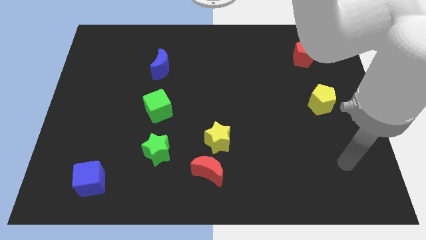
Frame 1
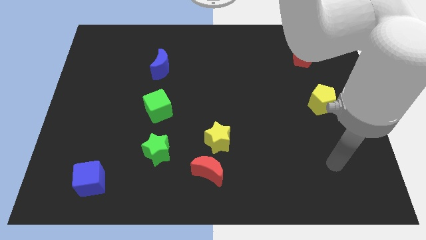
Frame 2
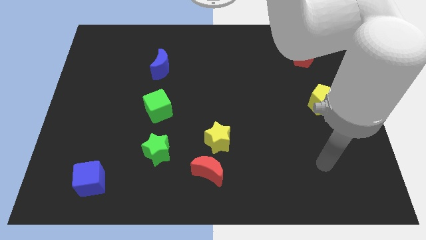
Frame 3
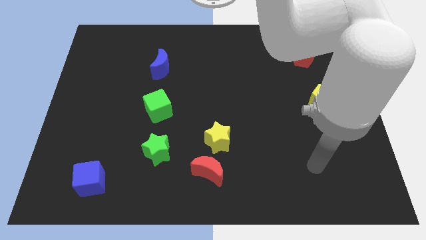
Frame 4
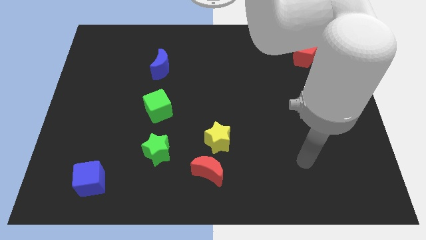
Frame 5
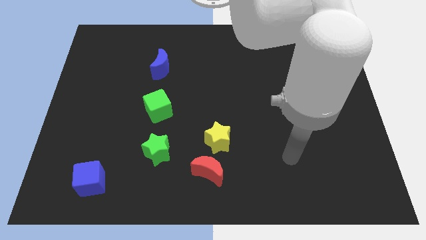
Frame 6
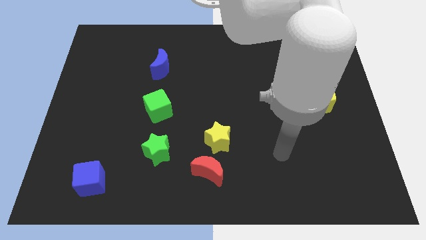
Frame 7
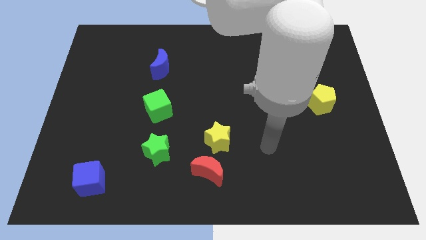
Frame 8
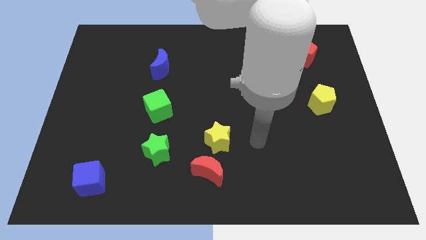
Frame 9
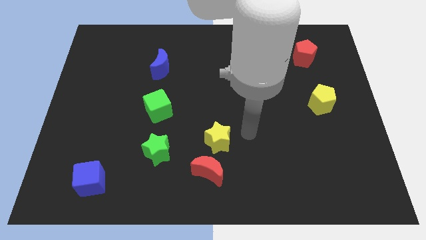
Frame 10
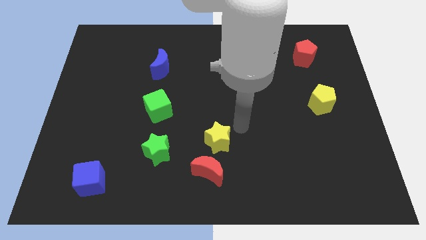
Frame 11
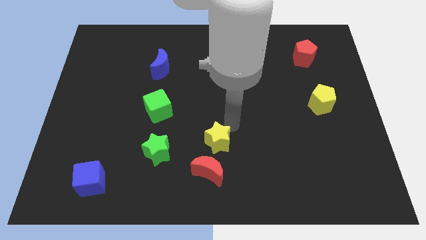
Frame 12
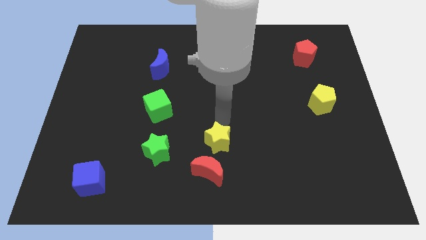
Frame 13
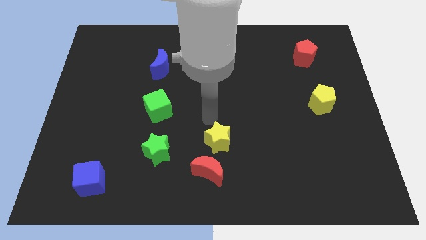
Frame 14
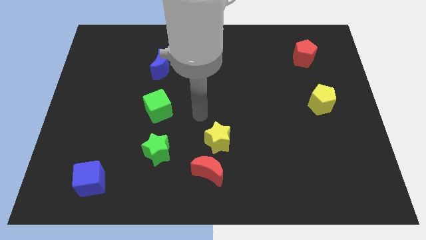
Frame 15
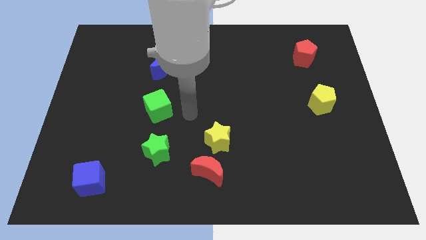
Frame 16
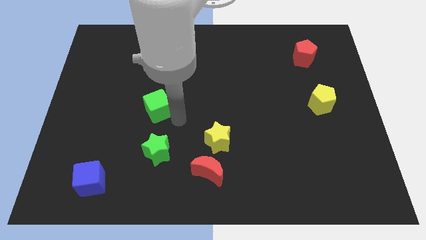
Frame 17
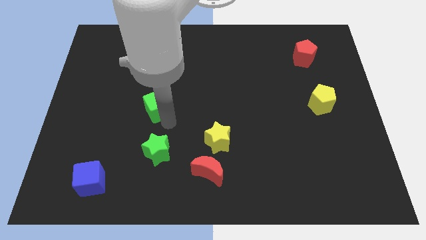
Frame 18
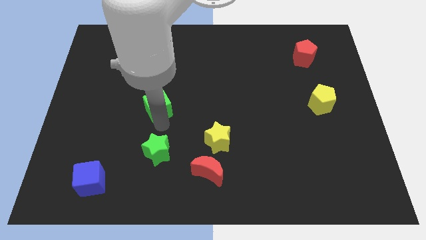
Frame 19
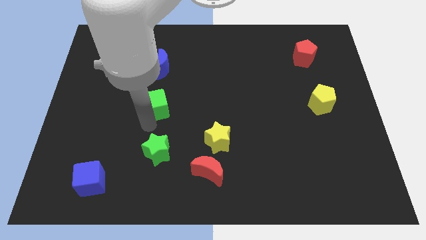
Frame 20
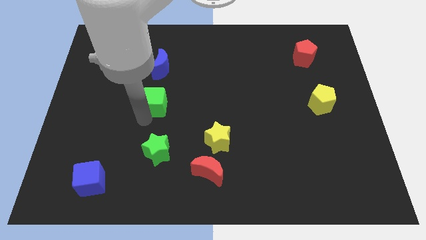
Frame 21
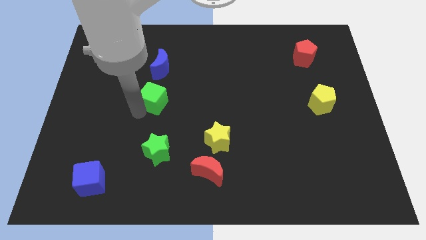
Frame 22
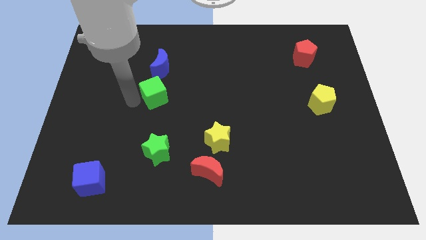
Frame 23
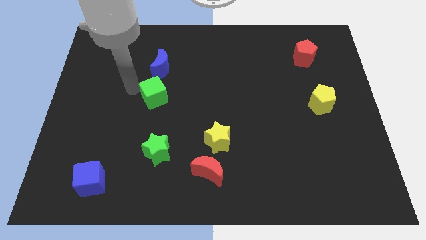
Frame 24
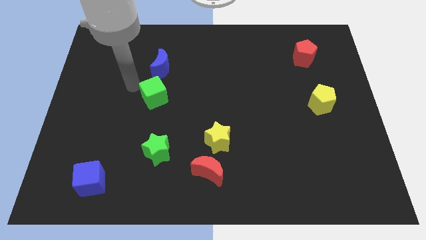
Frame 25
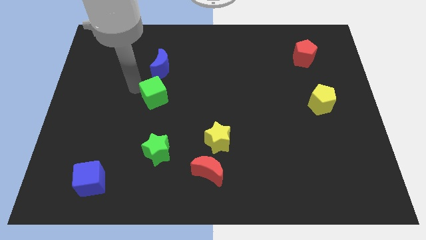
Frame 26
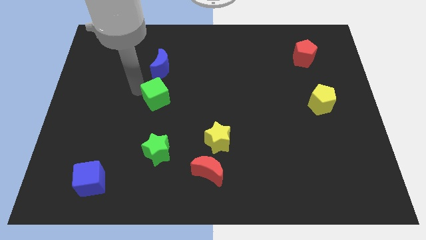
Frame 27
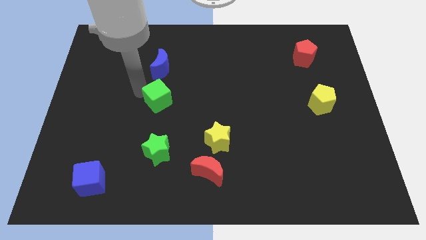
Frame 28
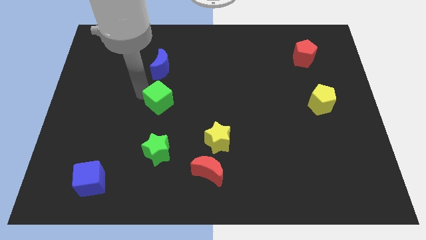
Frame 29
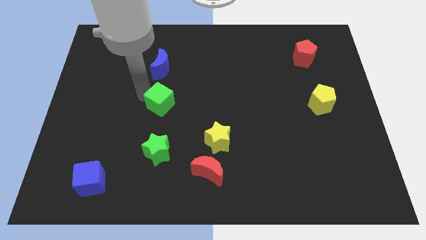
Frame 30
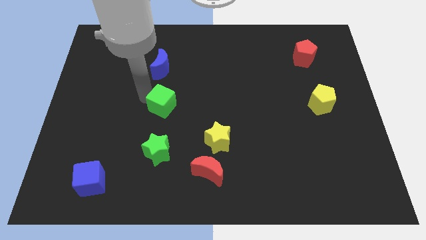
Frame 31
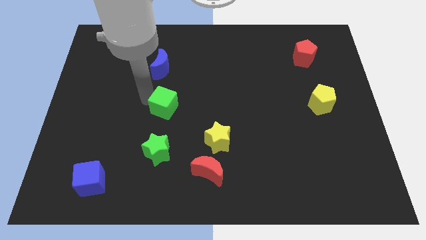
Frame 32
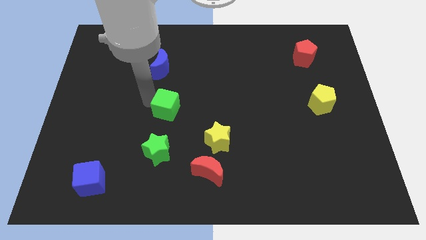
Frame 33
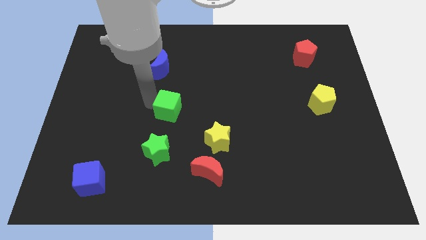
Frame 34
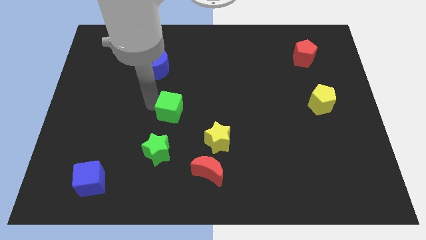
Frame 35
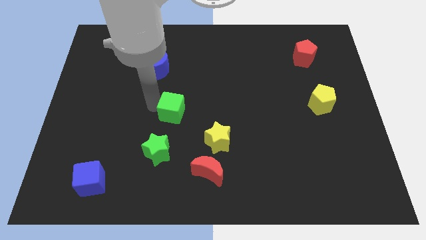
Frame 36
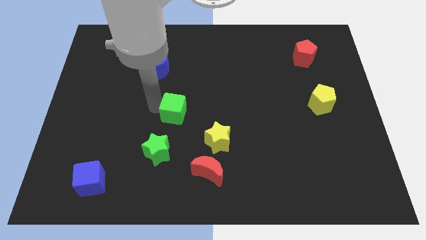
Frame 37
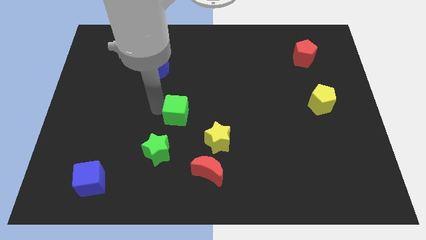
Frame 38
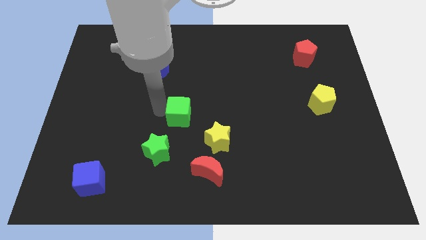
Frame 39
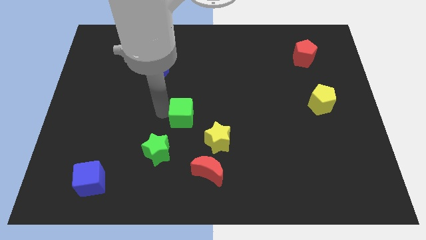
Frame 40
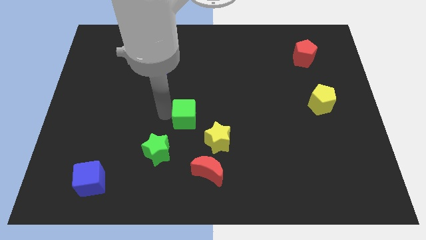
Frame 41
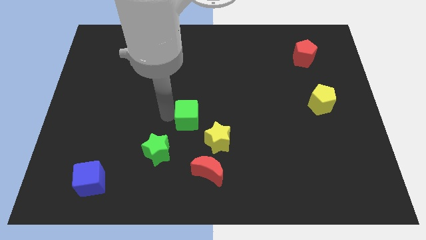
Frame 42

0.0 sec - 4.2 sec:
move the green cube somewhat to the right

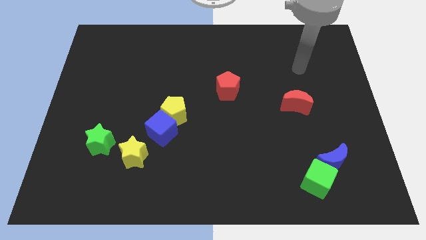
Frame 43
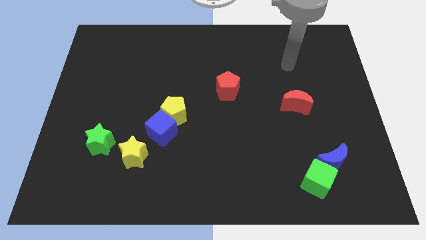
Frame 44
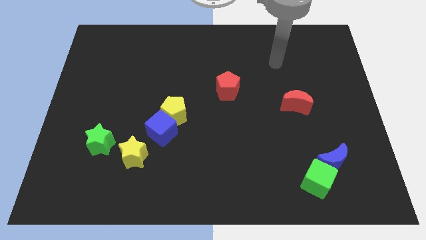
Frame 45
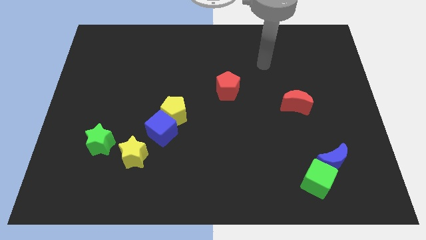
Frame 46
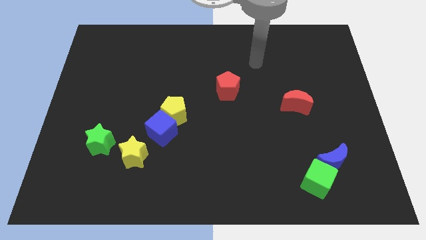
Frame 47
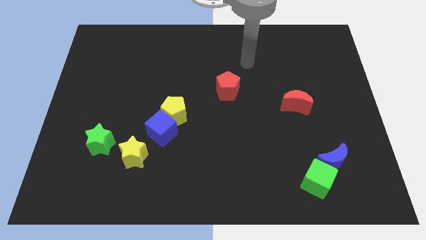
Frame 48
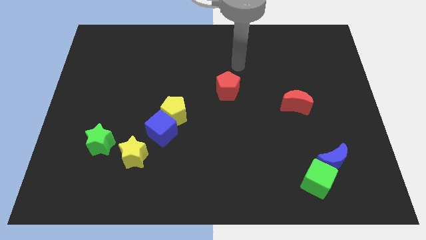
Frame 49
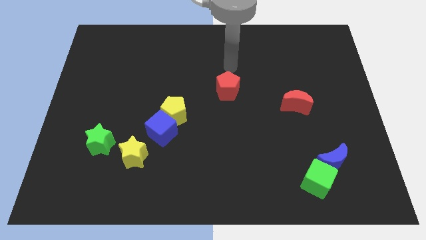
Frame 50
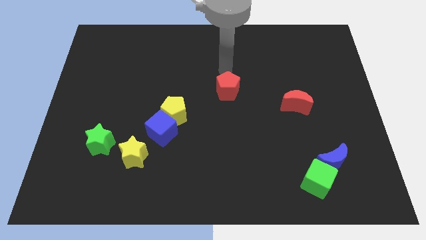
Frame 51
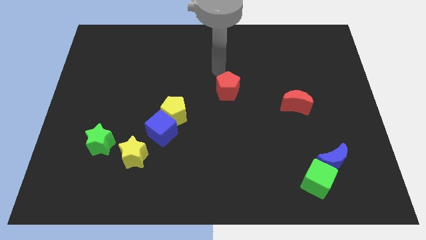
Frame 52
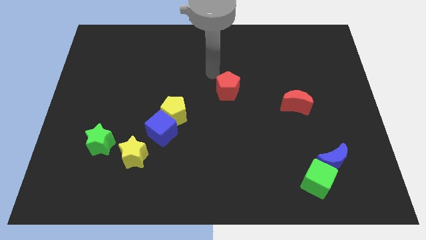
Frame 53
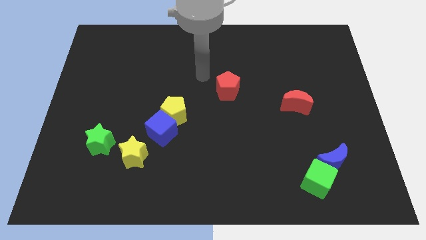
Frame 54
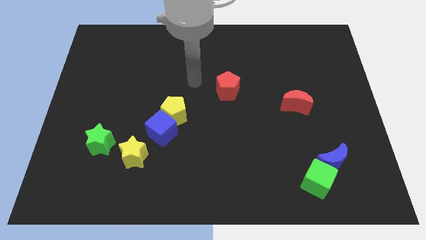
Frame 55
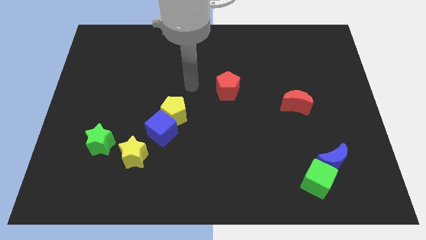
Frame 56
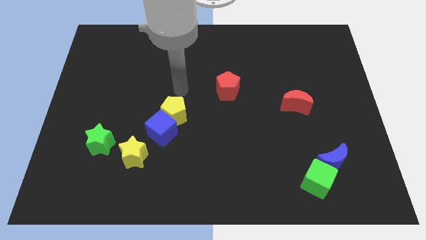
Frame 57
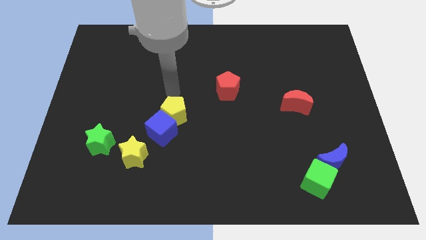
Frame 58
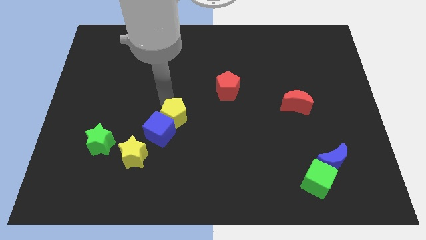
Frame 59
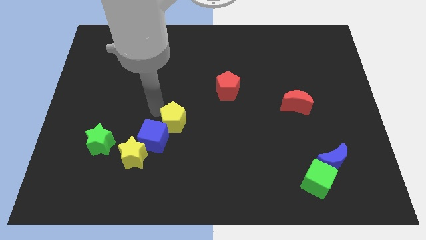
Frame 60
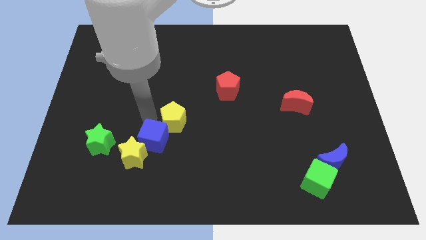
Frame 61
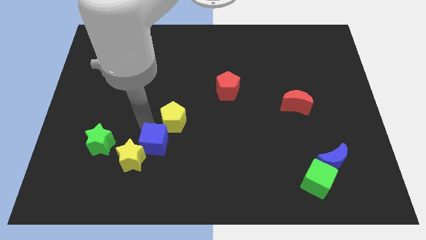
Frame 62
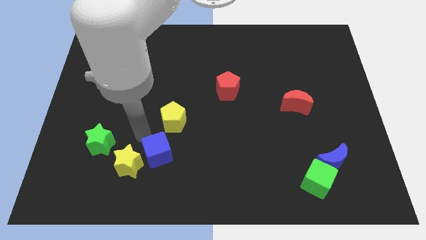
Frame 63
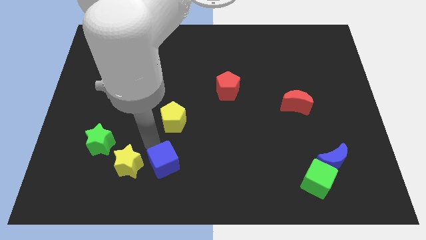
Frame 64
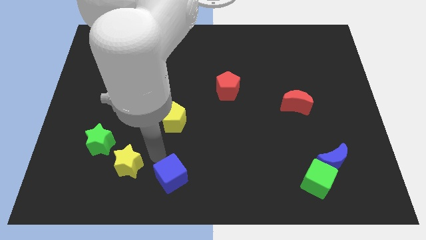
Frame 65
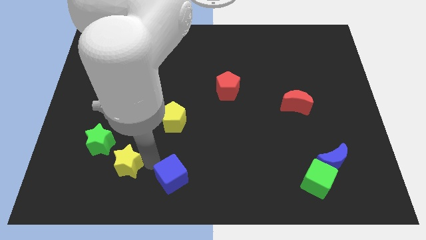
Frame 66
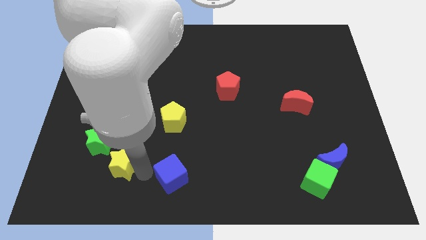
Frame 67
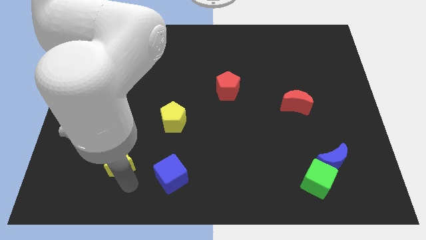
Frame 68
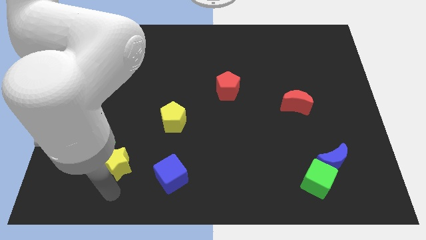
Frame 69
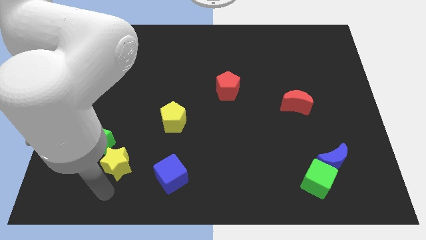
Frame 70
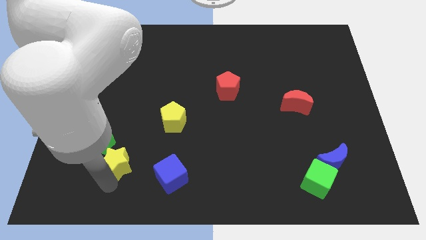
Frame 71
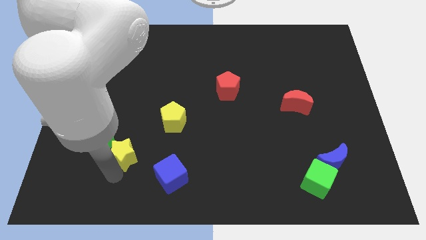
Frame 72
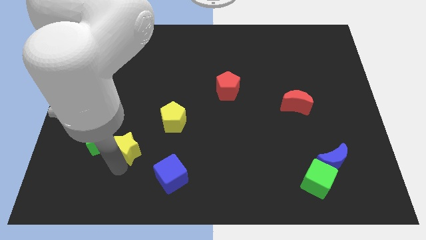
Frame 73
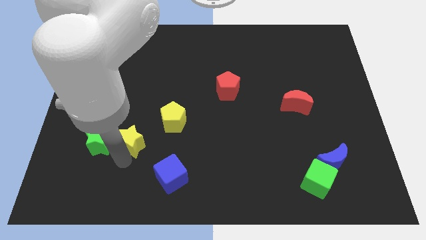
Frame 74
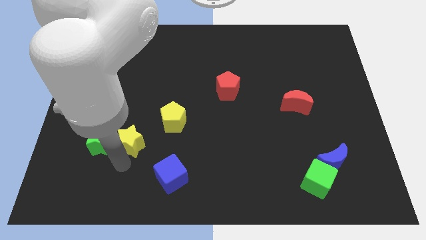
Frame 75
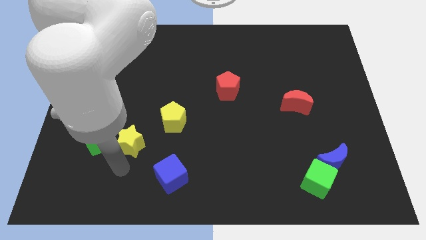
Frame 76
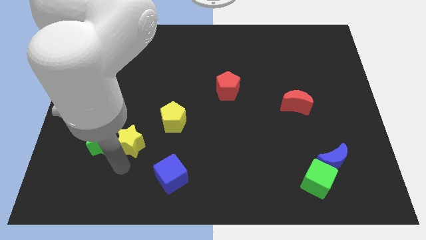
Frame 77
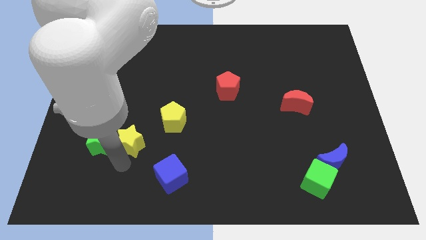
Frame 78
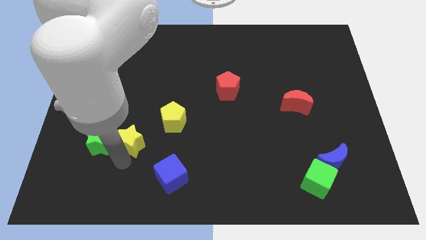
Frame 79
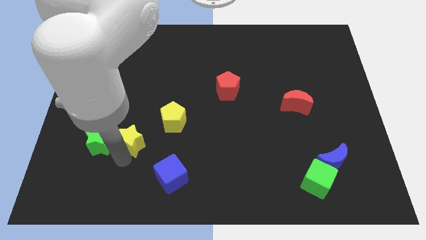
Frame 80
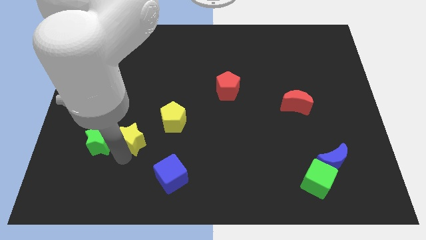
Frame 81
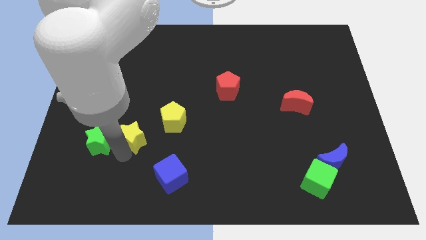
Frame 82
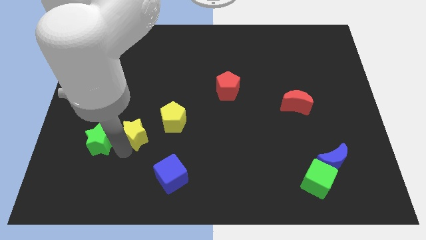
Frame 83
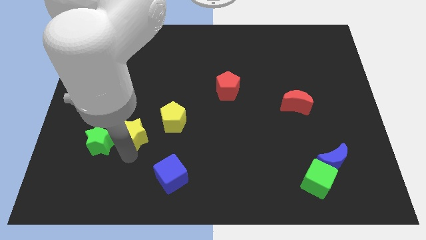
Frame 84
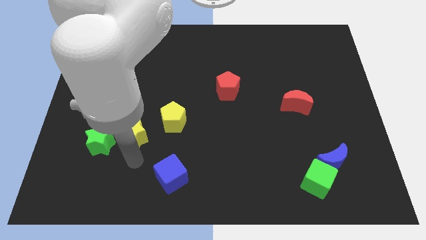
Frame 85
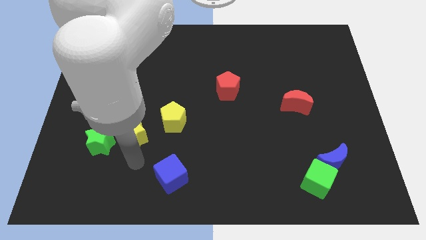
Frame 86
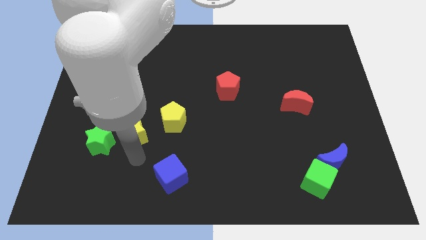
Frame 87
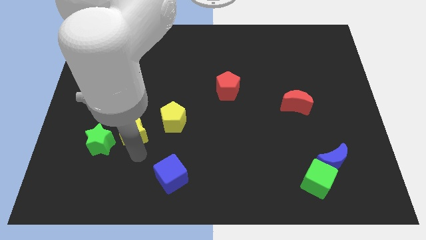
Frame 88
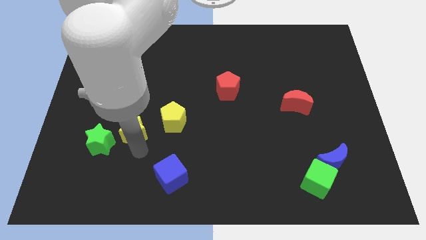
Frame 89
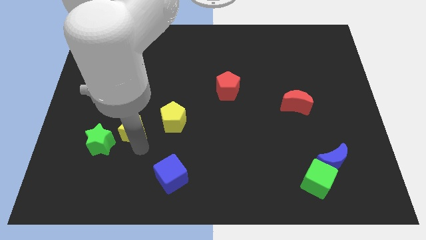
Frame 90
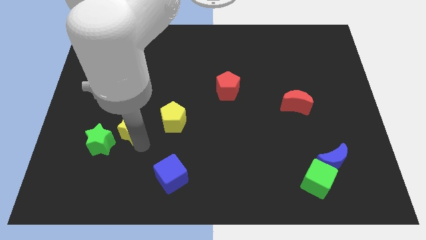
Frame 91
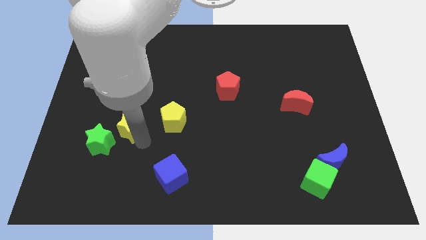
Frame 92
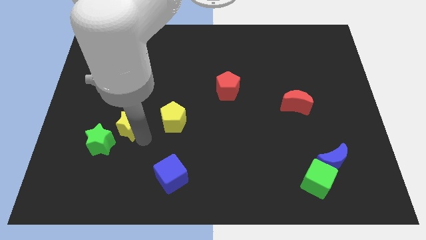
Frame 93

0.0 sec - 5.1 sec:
push the yellow star slightly upwards
